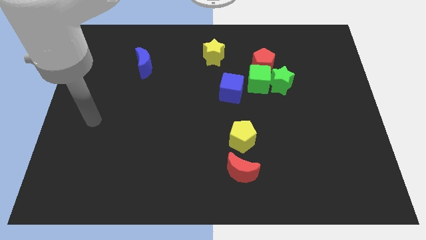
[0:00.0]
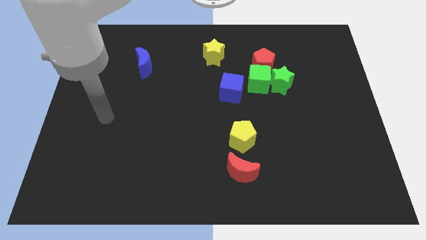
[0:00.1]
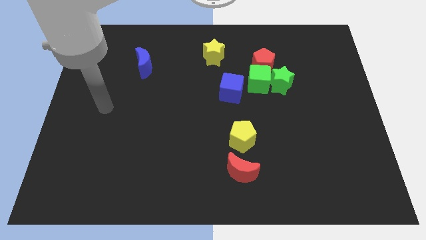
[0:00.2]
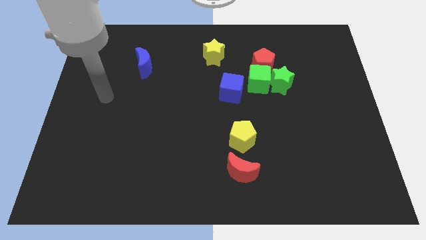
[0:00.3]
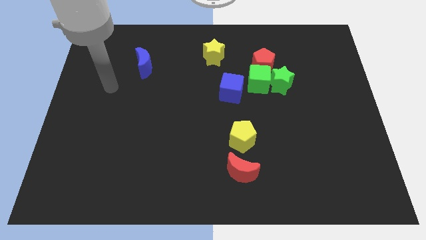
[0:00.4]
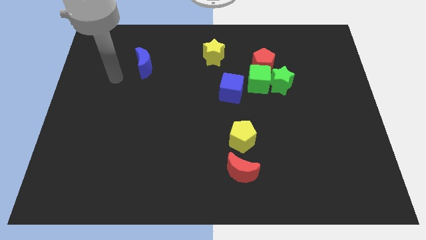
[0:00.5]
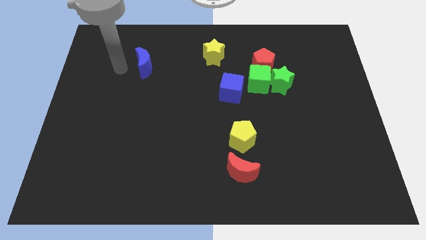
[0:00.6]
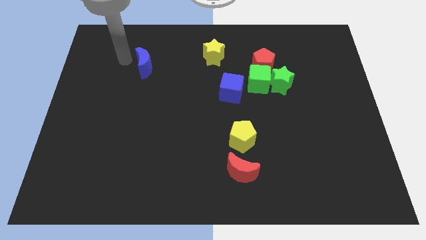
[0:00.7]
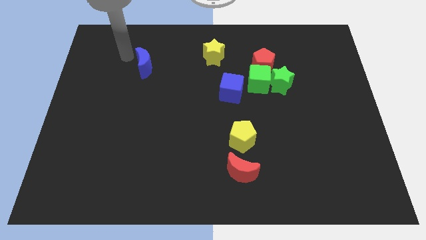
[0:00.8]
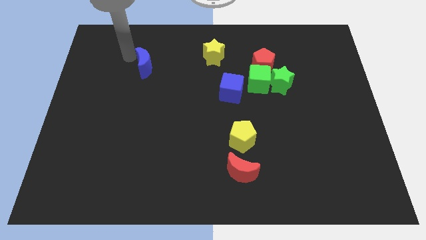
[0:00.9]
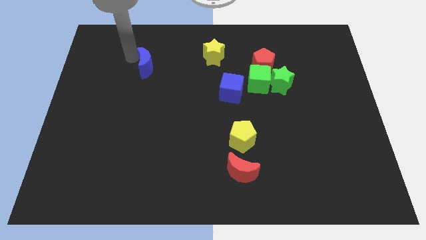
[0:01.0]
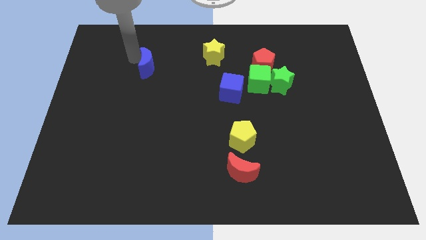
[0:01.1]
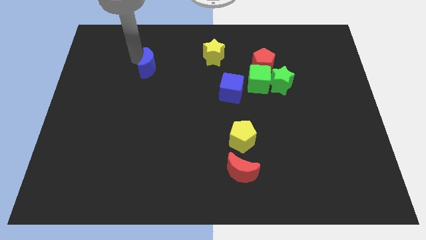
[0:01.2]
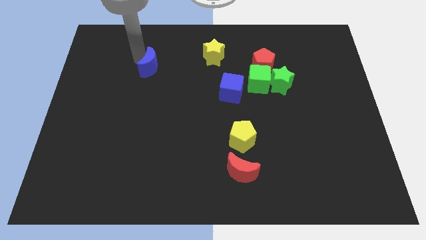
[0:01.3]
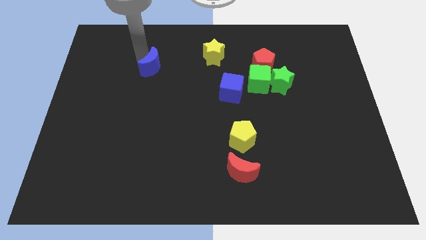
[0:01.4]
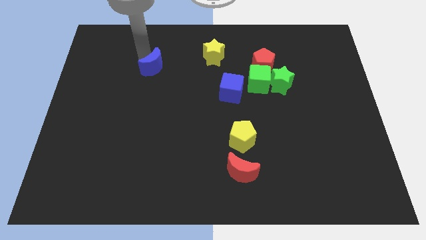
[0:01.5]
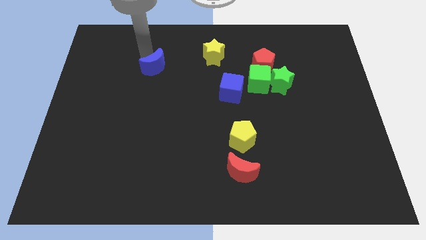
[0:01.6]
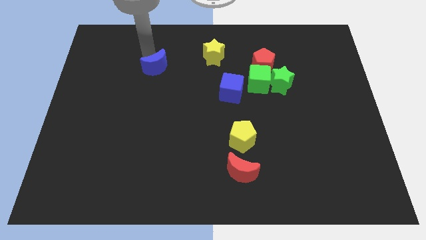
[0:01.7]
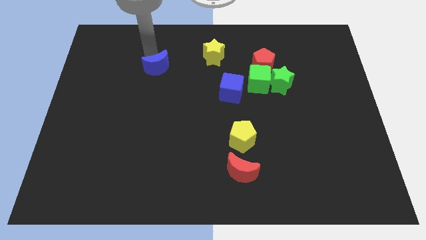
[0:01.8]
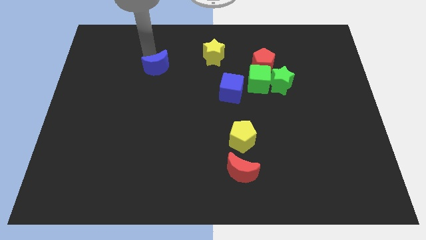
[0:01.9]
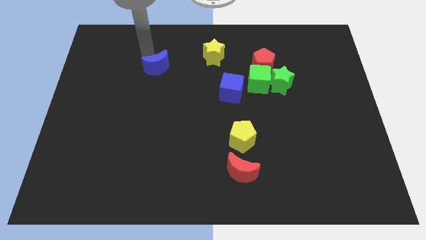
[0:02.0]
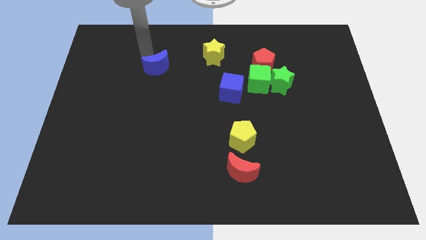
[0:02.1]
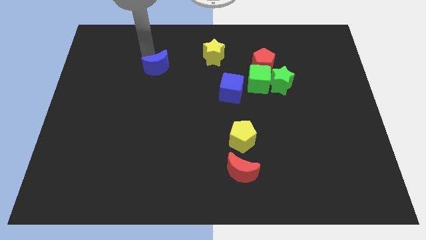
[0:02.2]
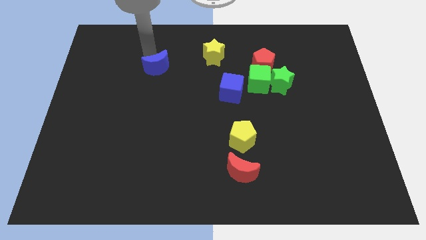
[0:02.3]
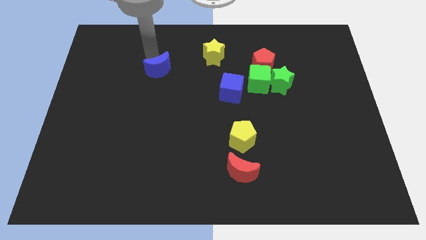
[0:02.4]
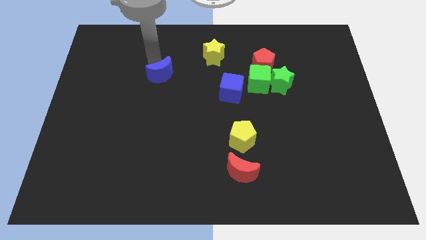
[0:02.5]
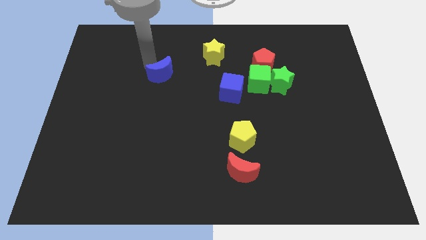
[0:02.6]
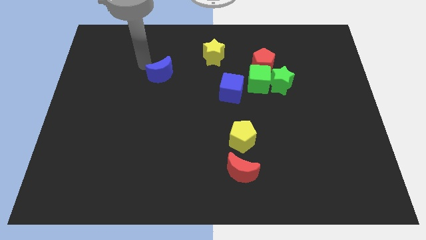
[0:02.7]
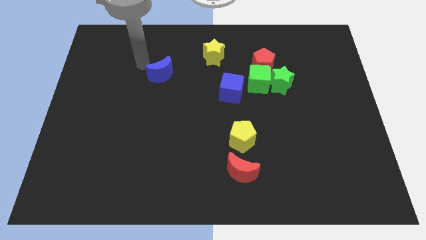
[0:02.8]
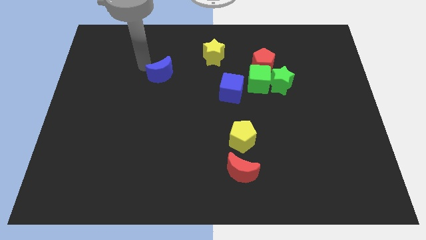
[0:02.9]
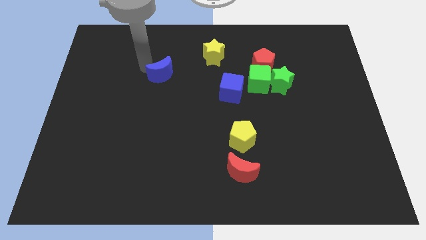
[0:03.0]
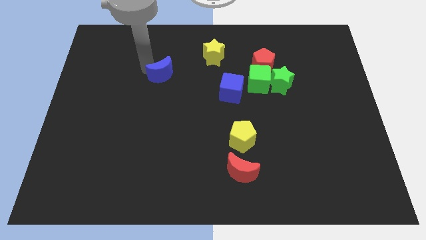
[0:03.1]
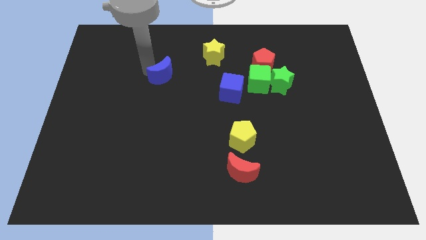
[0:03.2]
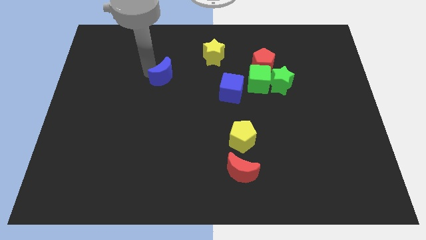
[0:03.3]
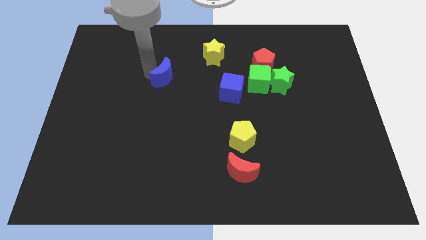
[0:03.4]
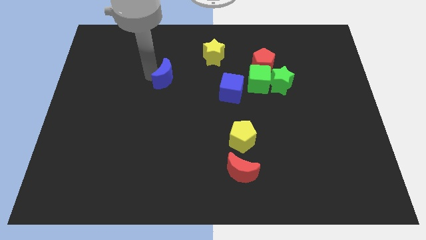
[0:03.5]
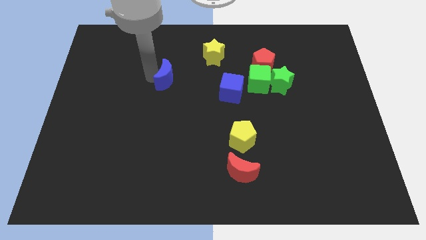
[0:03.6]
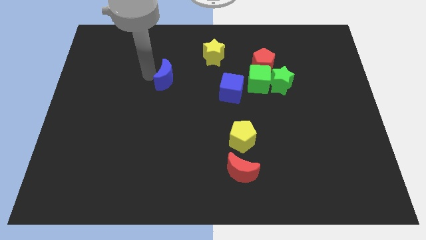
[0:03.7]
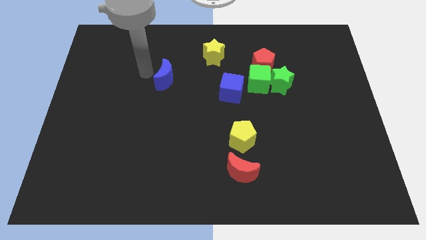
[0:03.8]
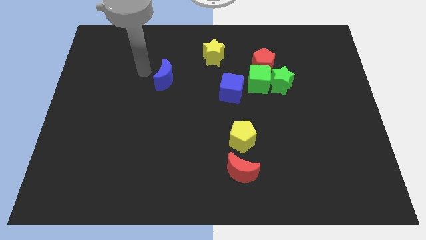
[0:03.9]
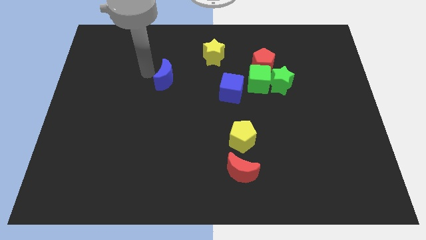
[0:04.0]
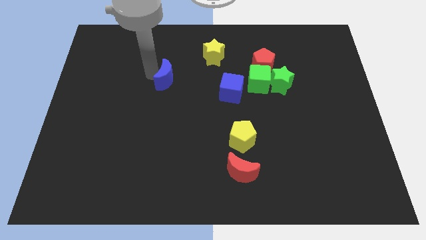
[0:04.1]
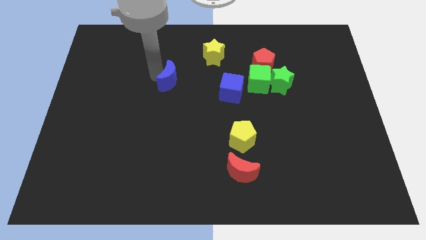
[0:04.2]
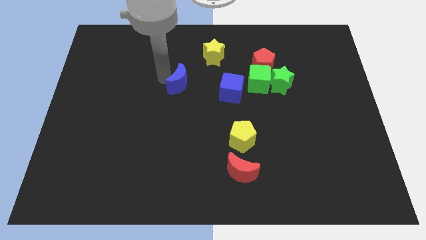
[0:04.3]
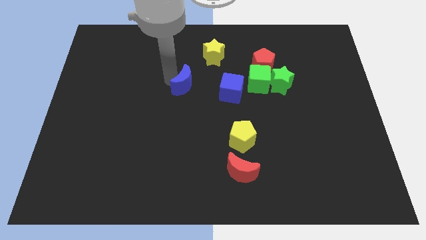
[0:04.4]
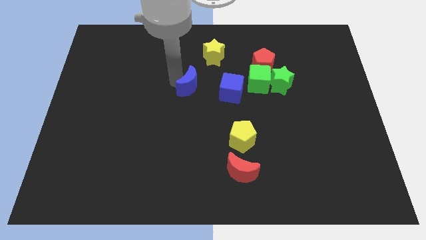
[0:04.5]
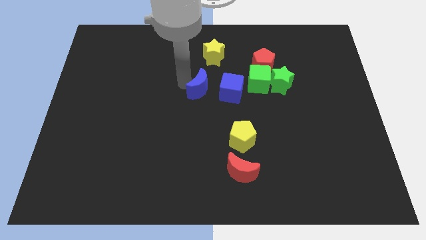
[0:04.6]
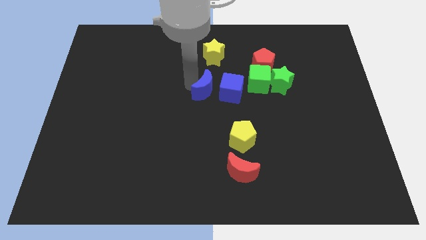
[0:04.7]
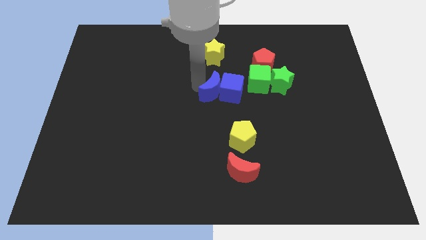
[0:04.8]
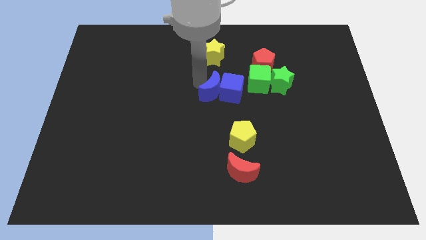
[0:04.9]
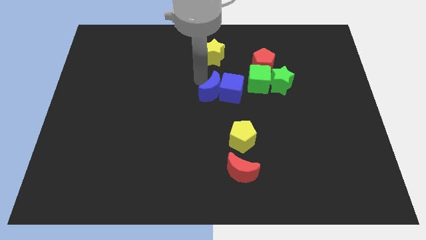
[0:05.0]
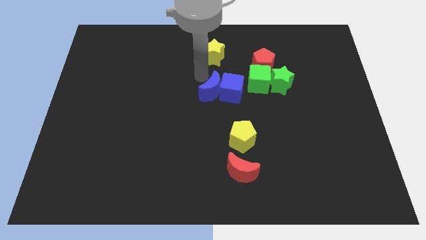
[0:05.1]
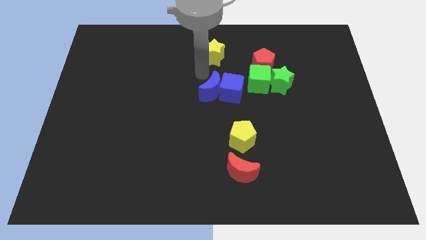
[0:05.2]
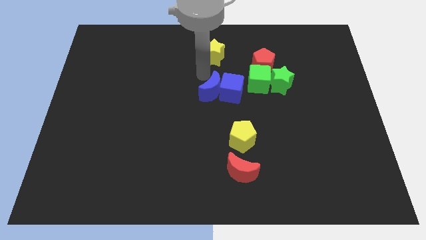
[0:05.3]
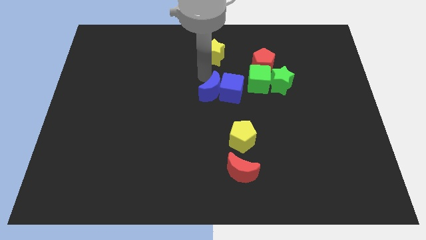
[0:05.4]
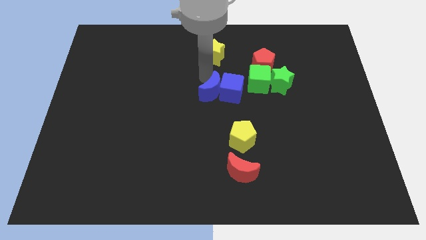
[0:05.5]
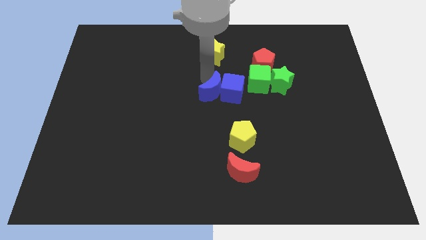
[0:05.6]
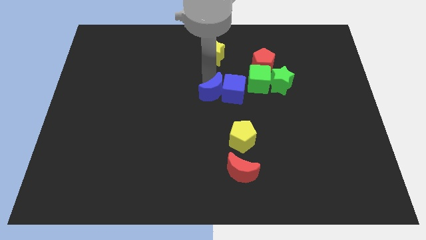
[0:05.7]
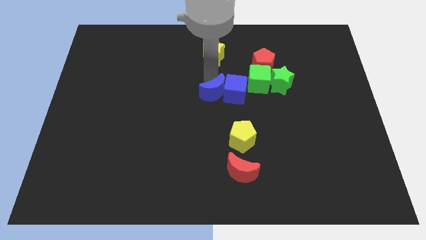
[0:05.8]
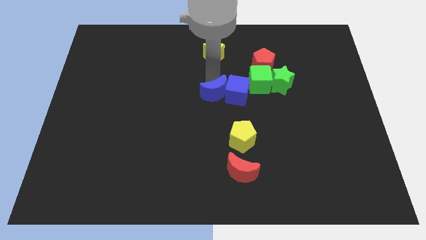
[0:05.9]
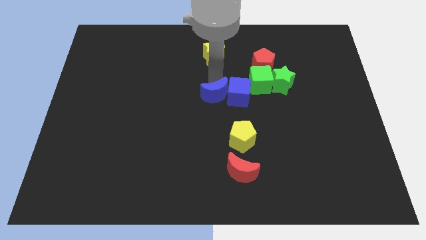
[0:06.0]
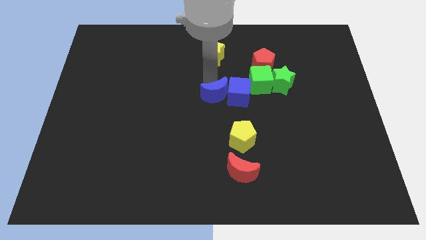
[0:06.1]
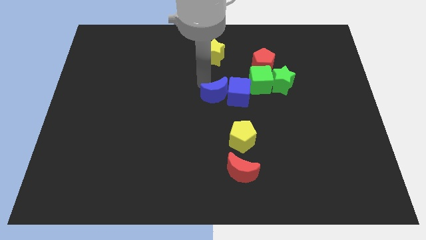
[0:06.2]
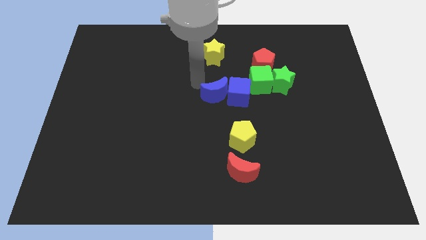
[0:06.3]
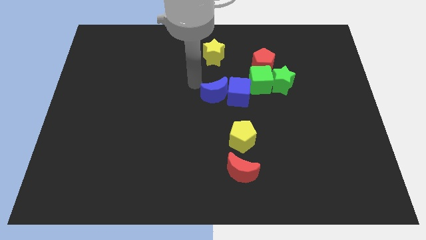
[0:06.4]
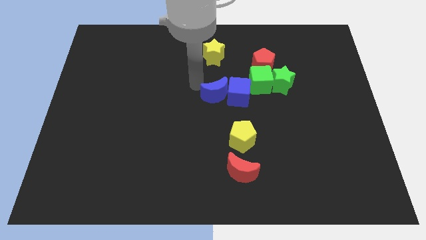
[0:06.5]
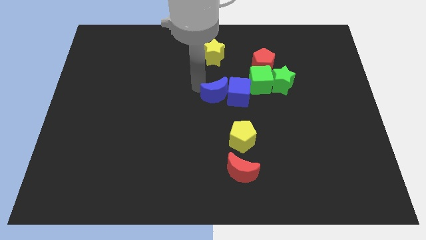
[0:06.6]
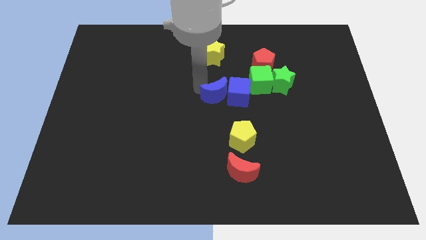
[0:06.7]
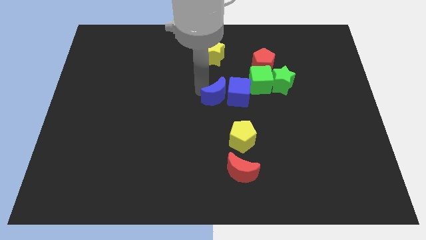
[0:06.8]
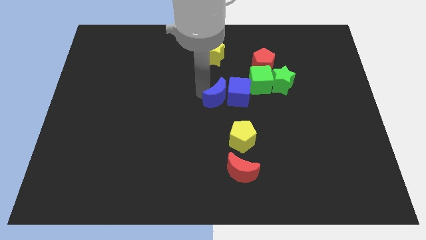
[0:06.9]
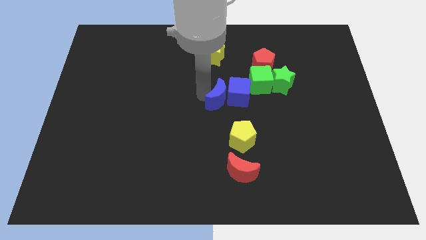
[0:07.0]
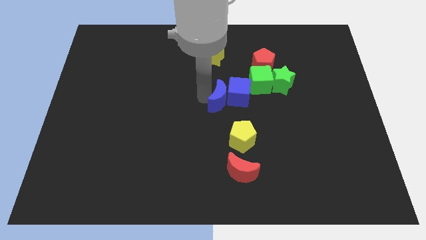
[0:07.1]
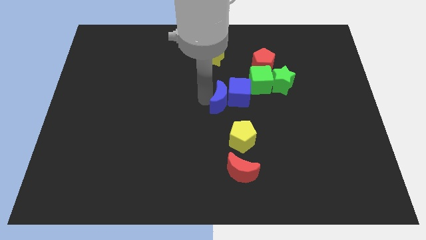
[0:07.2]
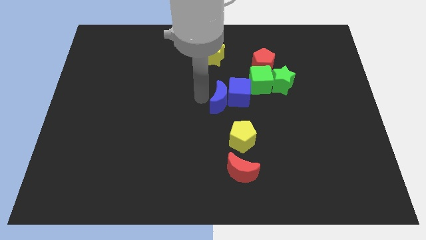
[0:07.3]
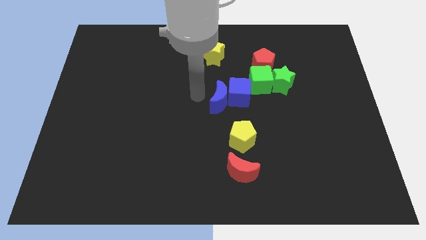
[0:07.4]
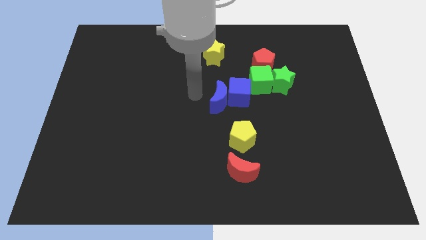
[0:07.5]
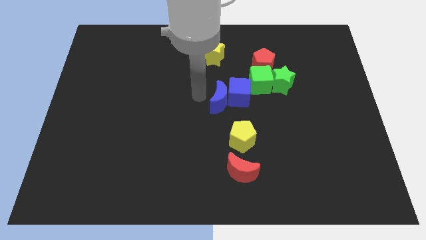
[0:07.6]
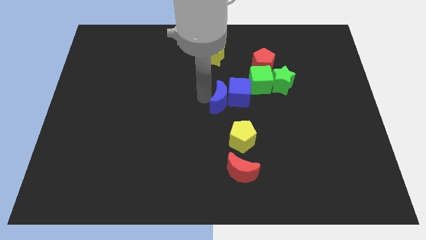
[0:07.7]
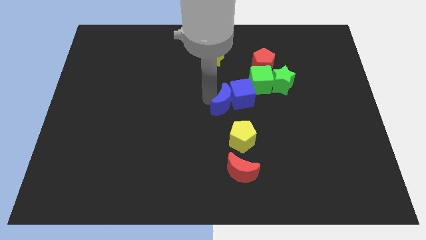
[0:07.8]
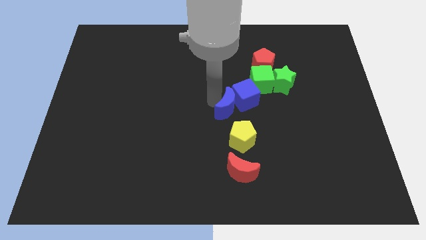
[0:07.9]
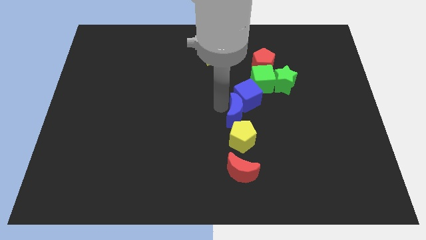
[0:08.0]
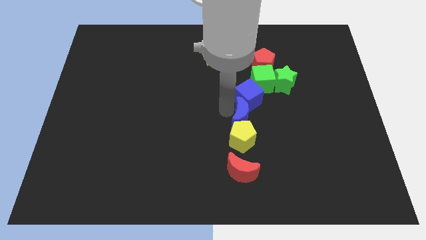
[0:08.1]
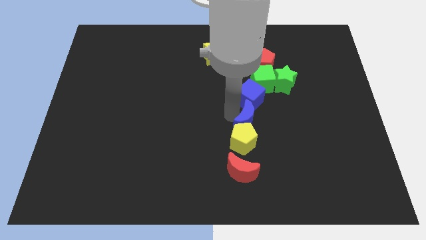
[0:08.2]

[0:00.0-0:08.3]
move the blue moon to the bottom of the green cube
